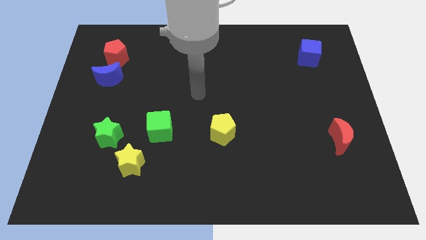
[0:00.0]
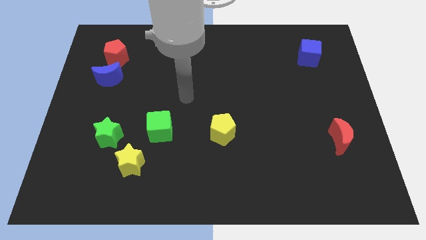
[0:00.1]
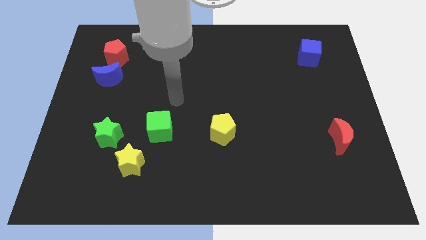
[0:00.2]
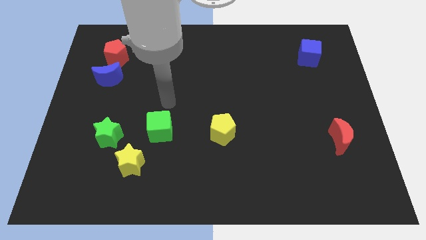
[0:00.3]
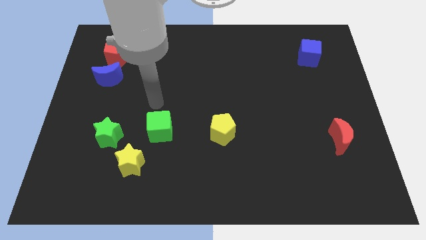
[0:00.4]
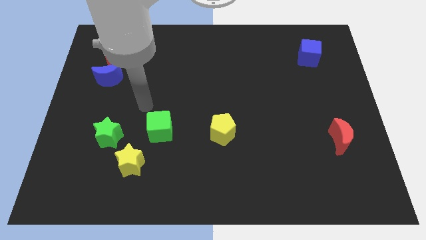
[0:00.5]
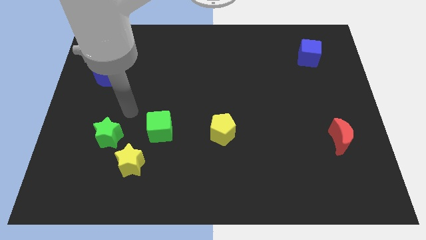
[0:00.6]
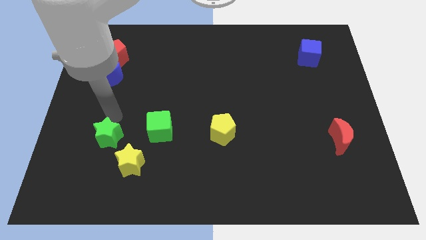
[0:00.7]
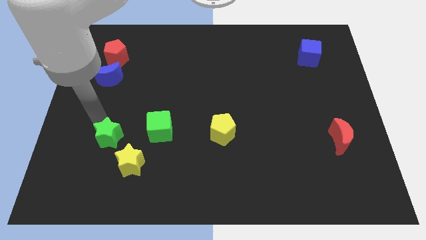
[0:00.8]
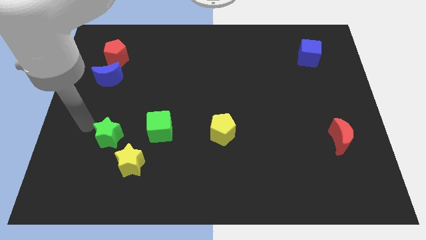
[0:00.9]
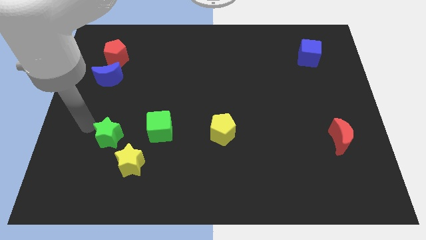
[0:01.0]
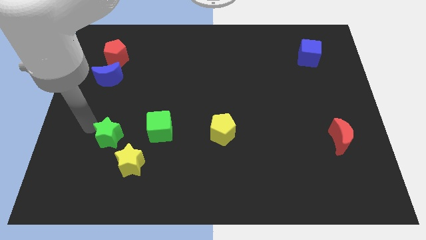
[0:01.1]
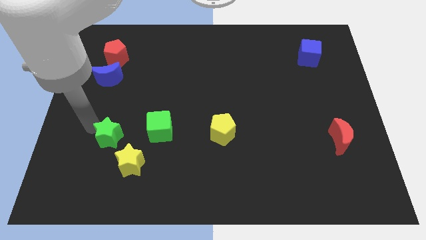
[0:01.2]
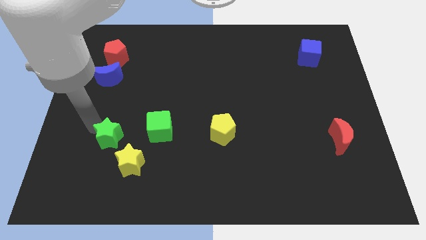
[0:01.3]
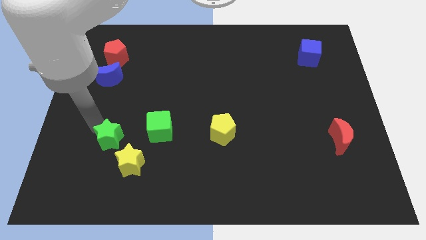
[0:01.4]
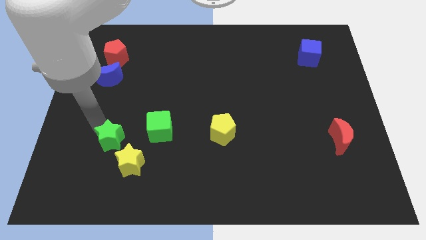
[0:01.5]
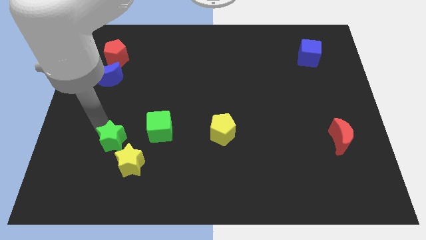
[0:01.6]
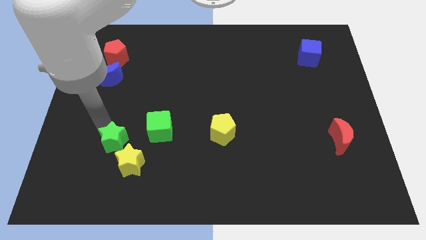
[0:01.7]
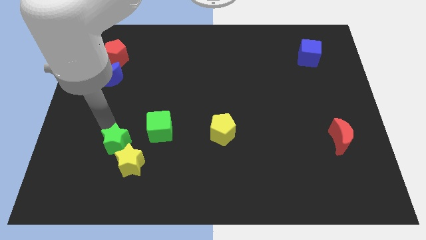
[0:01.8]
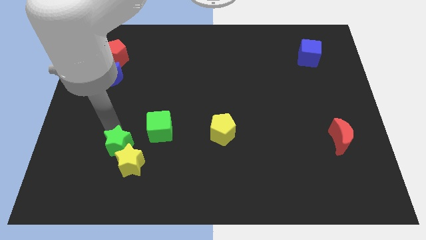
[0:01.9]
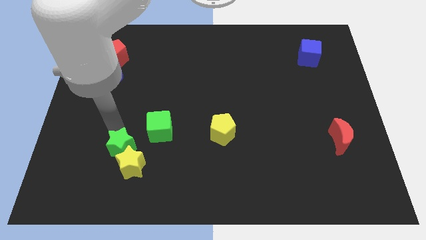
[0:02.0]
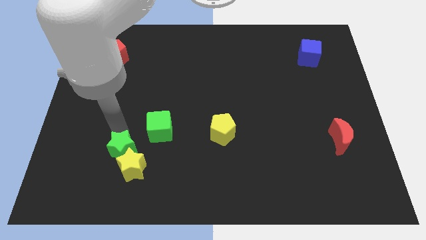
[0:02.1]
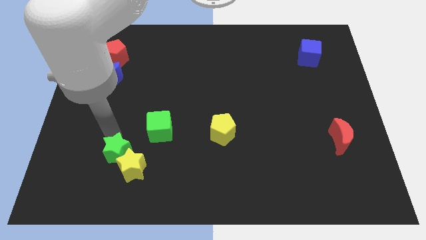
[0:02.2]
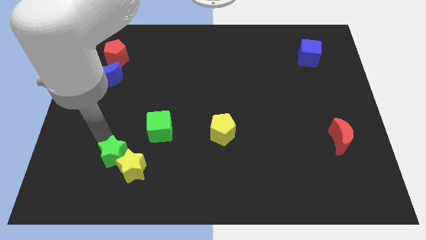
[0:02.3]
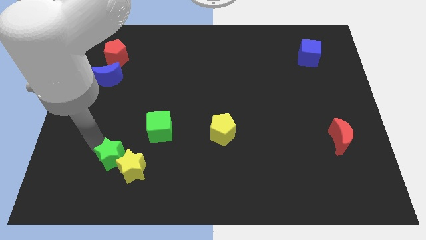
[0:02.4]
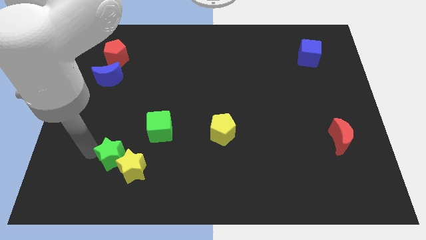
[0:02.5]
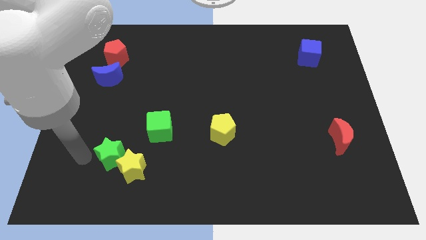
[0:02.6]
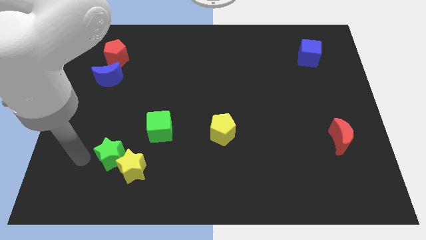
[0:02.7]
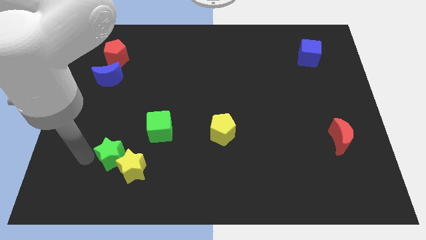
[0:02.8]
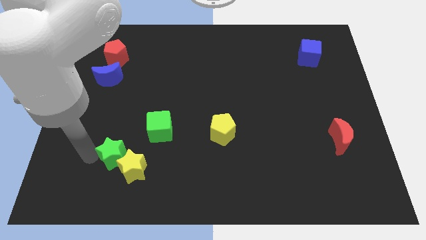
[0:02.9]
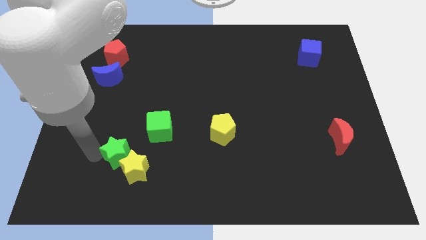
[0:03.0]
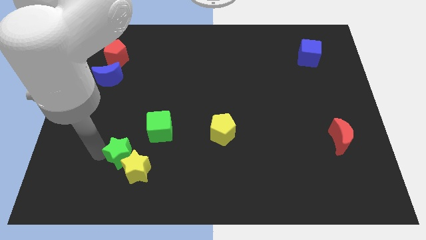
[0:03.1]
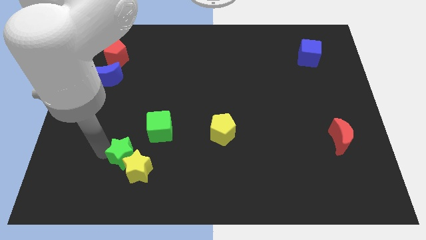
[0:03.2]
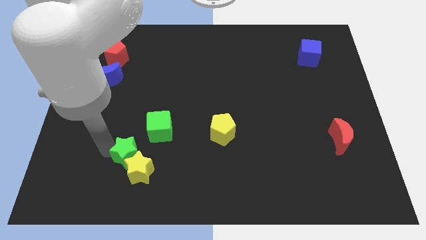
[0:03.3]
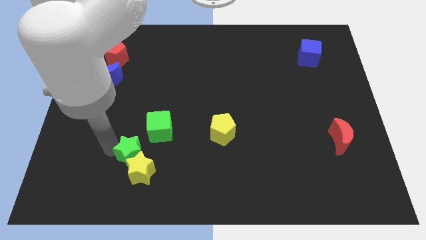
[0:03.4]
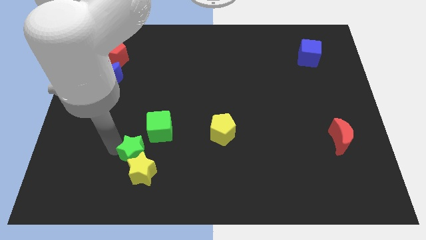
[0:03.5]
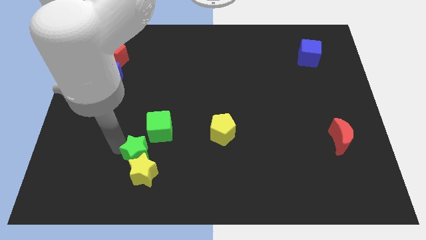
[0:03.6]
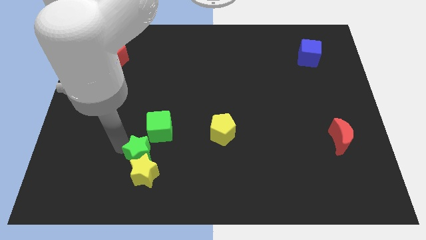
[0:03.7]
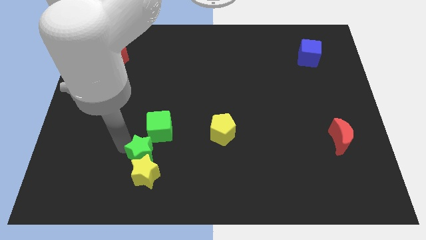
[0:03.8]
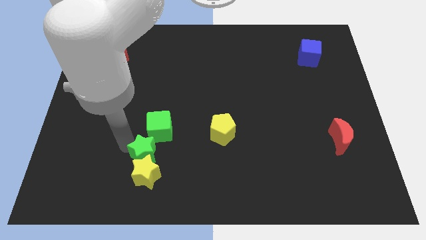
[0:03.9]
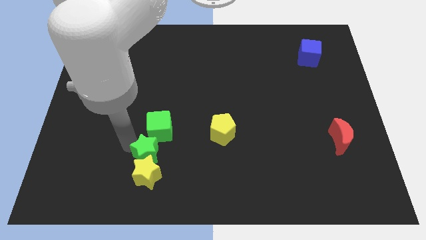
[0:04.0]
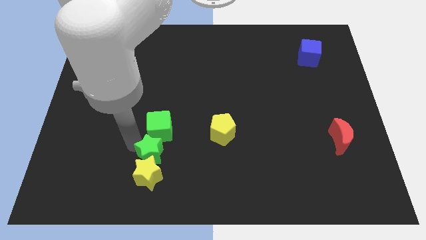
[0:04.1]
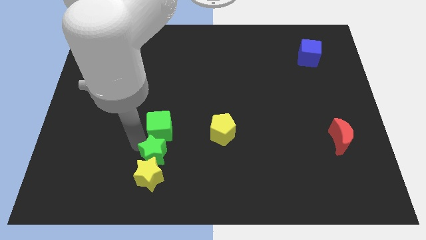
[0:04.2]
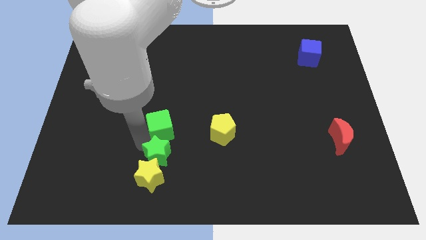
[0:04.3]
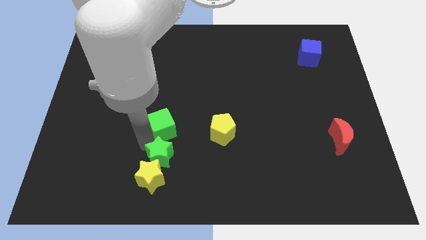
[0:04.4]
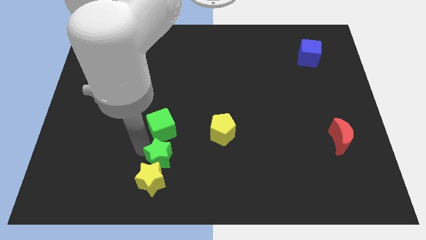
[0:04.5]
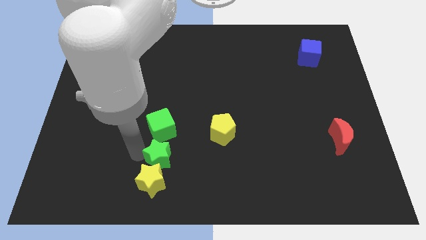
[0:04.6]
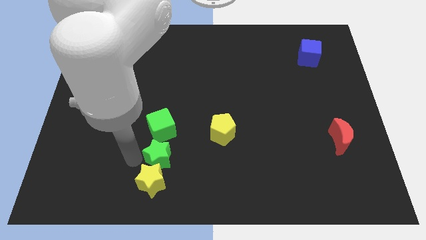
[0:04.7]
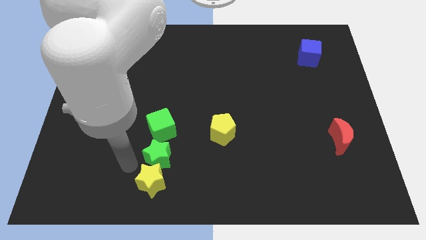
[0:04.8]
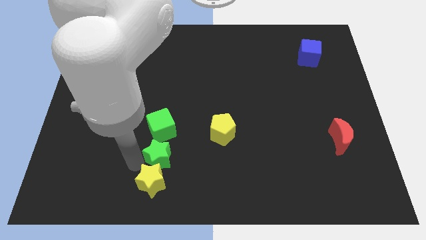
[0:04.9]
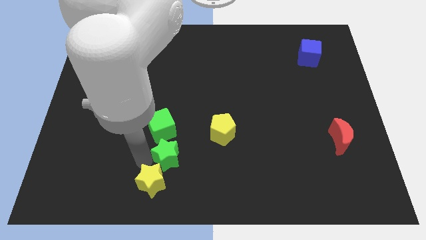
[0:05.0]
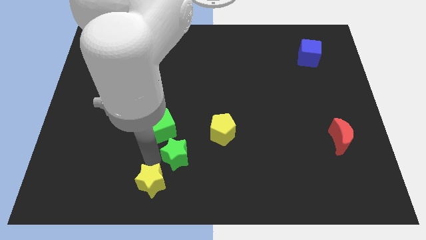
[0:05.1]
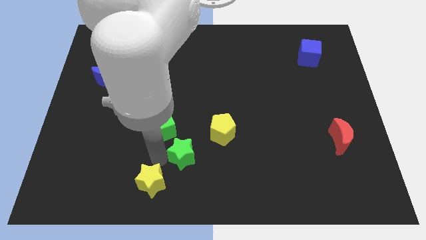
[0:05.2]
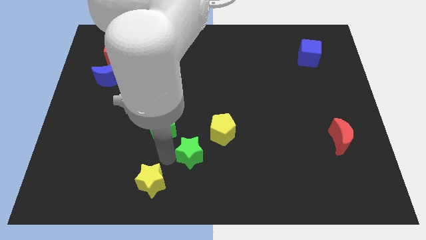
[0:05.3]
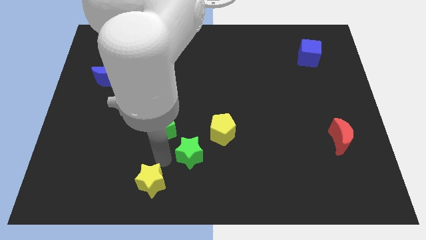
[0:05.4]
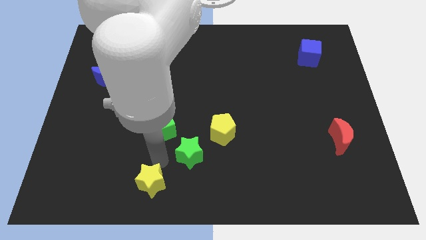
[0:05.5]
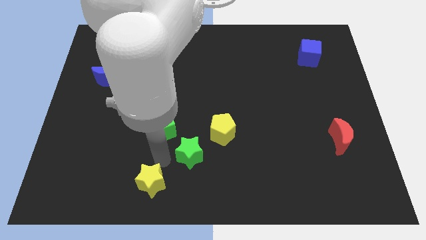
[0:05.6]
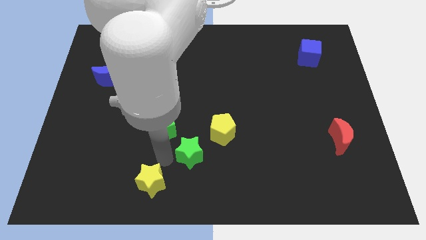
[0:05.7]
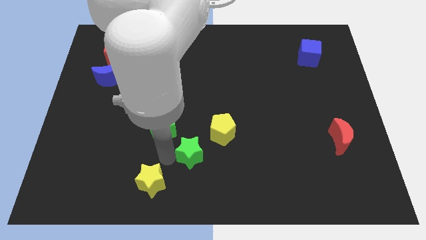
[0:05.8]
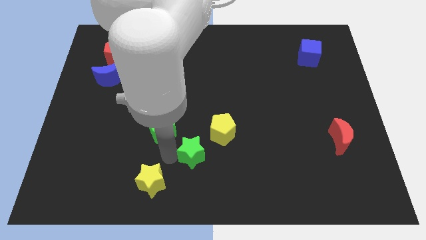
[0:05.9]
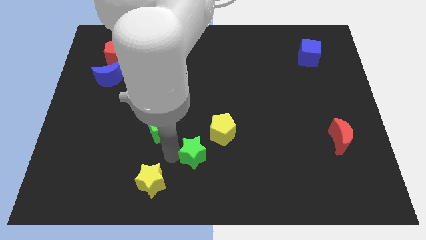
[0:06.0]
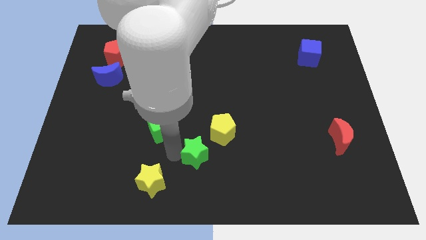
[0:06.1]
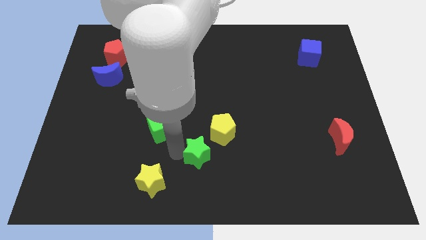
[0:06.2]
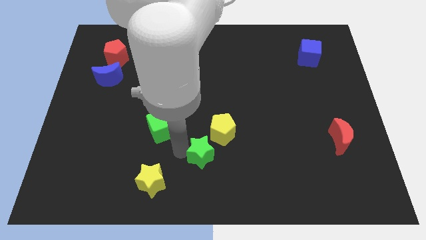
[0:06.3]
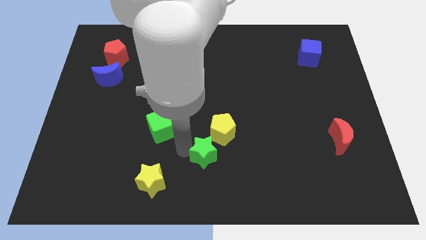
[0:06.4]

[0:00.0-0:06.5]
move the green star right

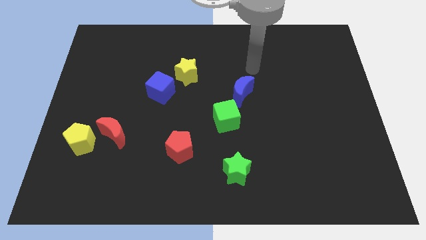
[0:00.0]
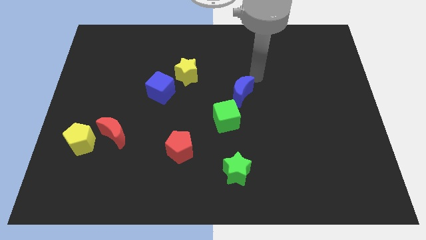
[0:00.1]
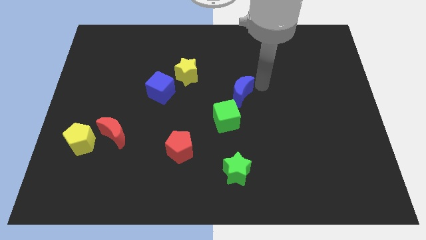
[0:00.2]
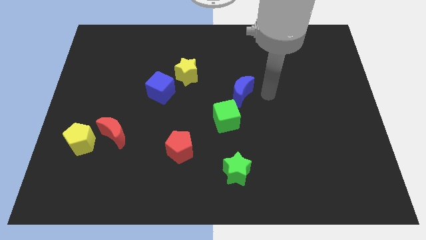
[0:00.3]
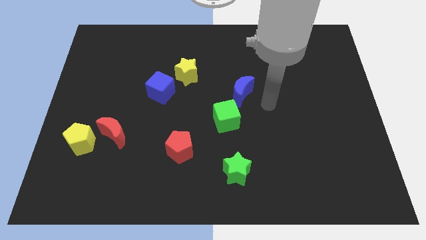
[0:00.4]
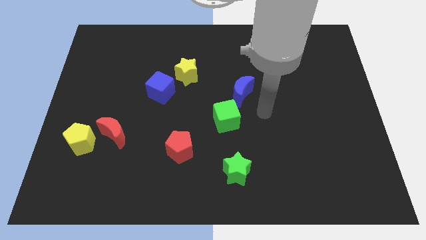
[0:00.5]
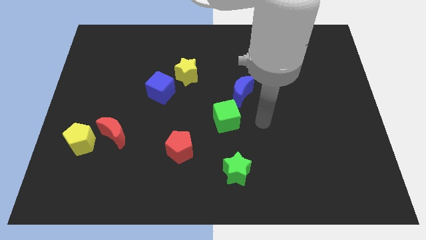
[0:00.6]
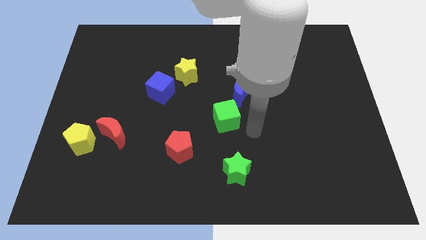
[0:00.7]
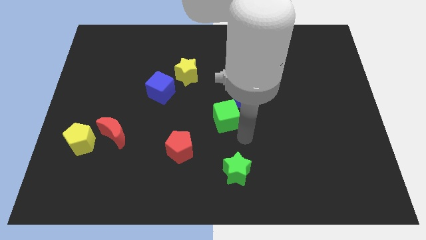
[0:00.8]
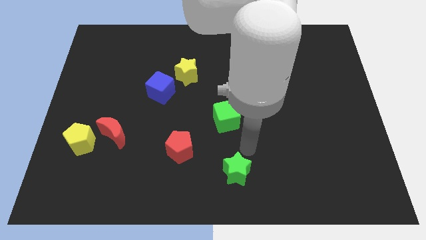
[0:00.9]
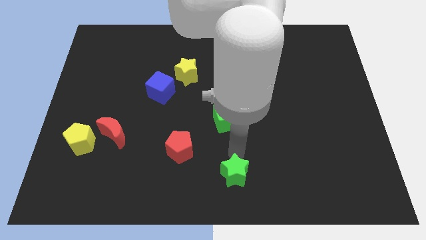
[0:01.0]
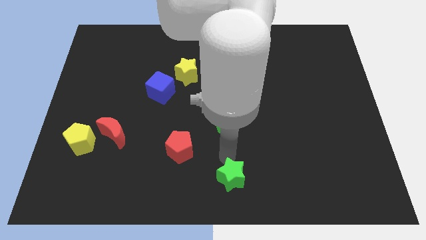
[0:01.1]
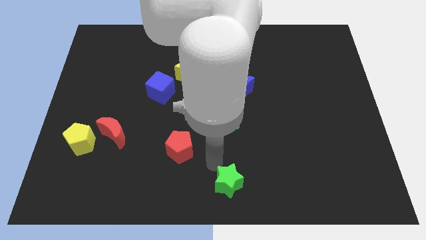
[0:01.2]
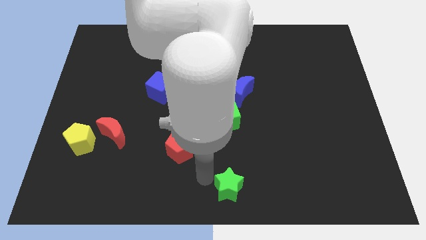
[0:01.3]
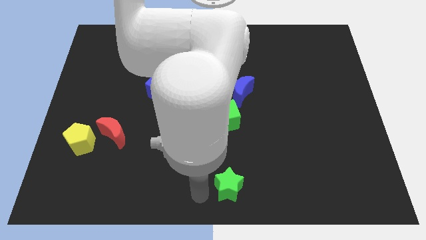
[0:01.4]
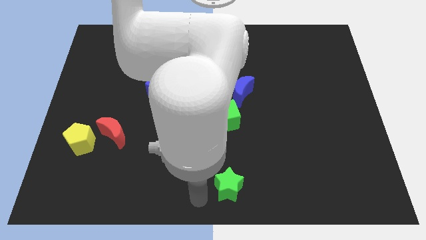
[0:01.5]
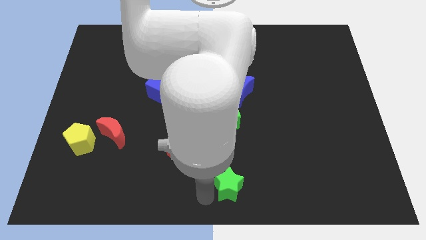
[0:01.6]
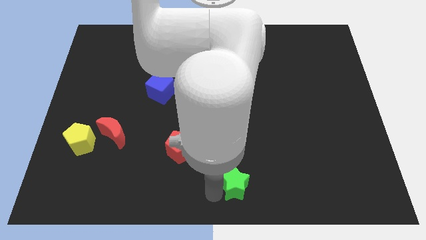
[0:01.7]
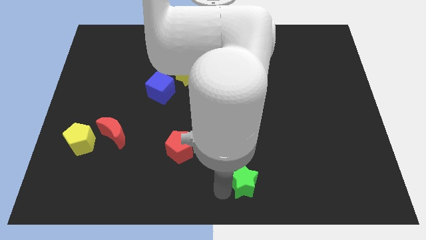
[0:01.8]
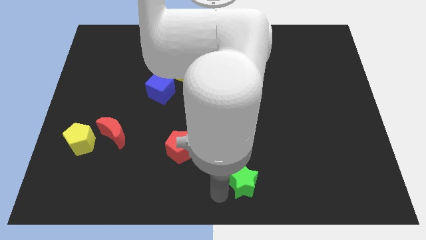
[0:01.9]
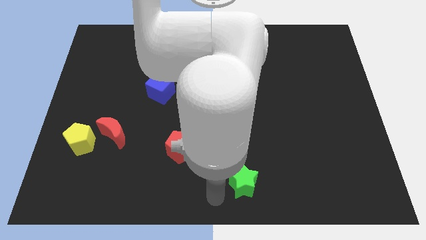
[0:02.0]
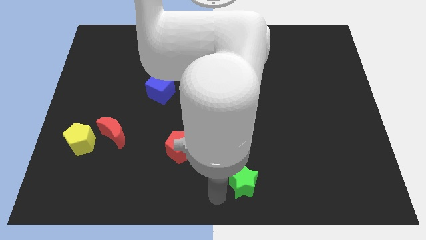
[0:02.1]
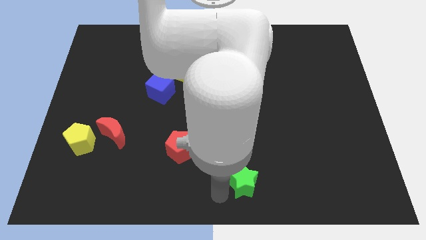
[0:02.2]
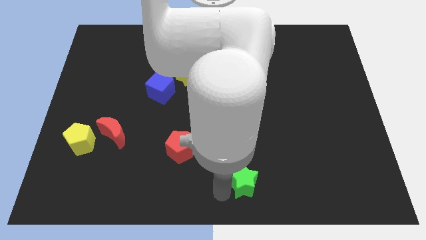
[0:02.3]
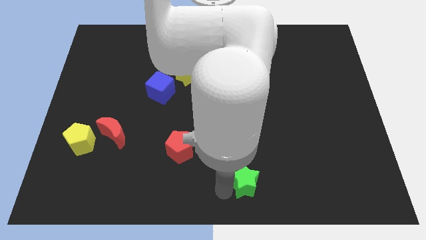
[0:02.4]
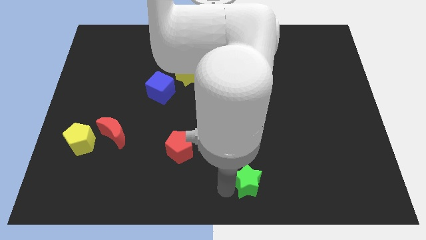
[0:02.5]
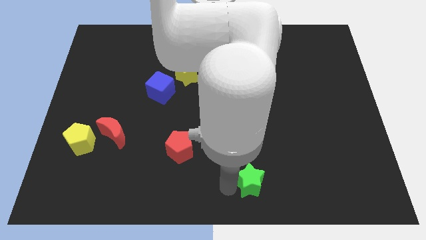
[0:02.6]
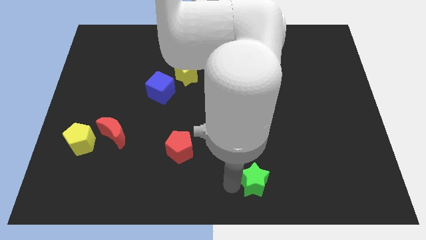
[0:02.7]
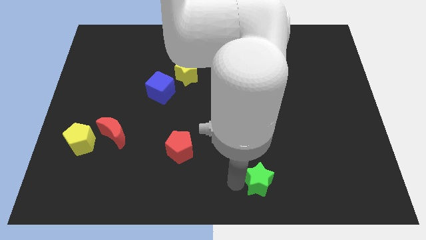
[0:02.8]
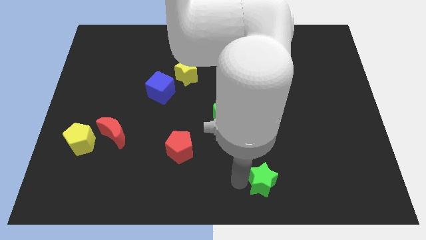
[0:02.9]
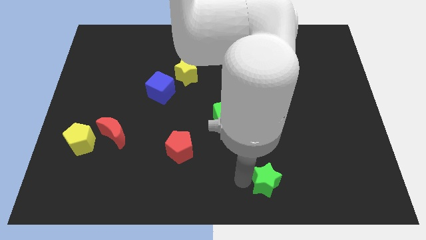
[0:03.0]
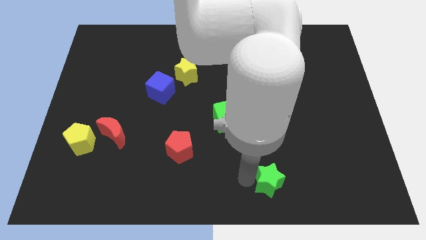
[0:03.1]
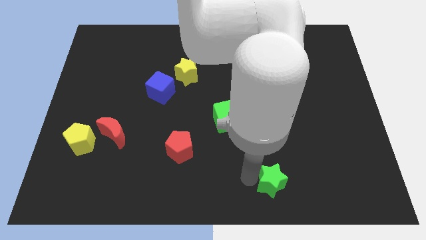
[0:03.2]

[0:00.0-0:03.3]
move the green star slightly right
